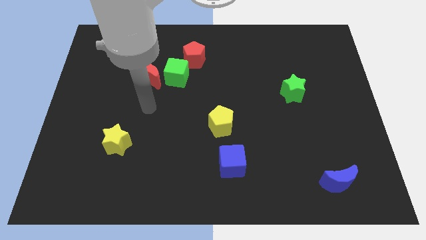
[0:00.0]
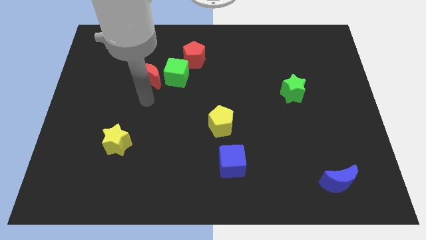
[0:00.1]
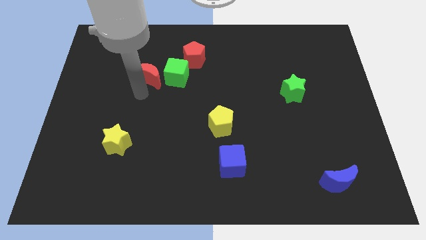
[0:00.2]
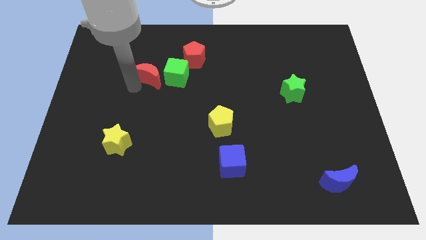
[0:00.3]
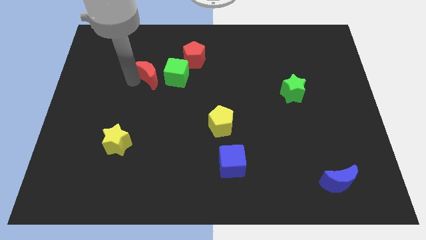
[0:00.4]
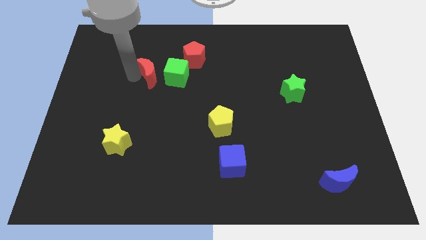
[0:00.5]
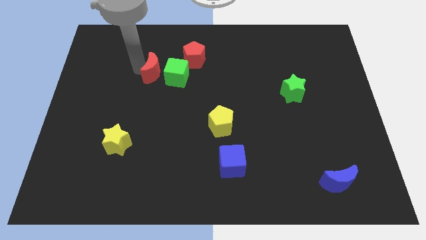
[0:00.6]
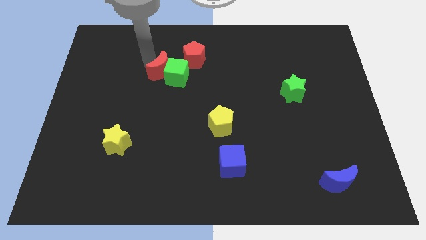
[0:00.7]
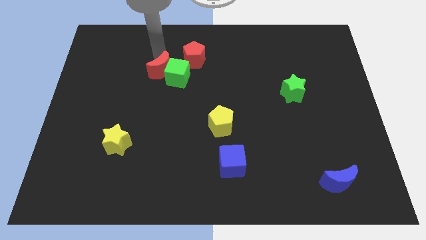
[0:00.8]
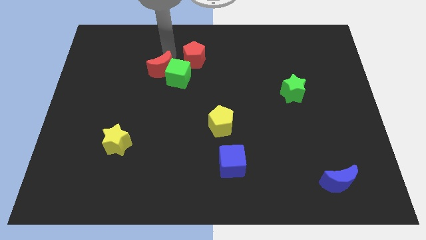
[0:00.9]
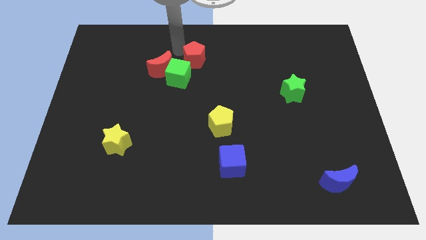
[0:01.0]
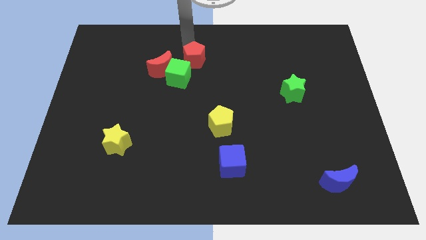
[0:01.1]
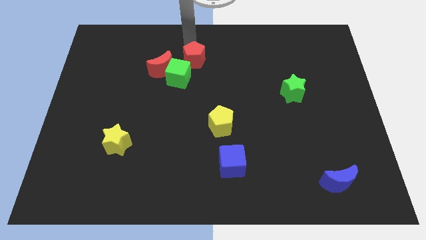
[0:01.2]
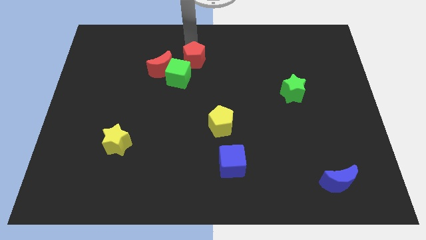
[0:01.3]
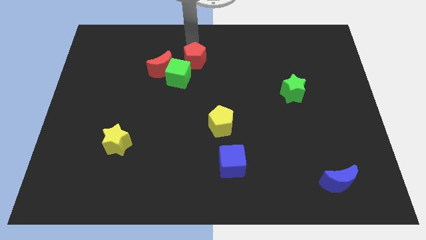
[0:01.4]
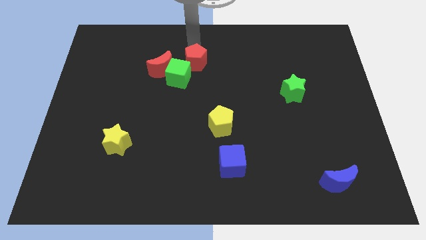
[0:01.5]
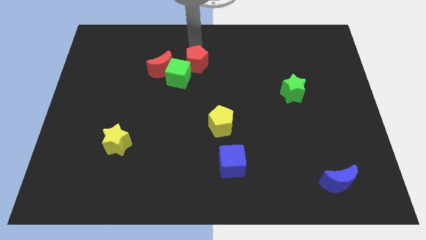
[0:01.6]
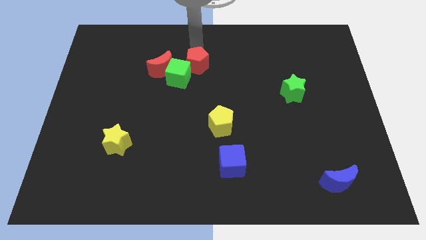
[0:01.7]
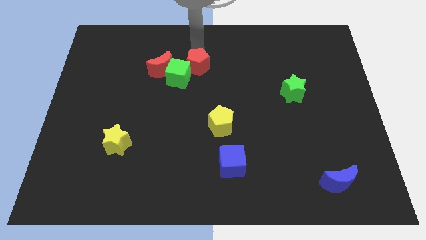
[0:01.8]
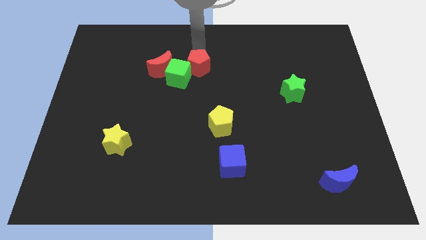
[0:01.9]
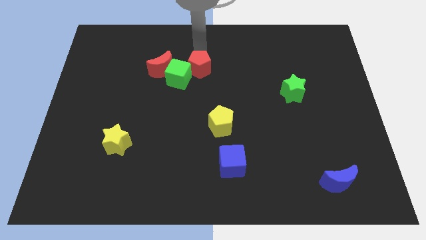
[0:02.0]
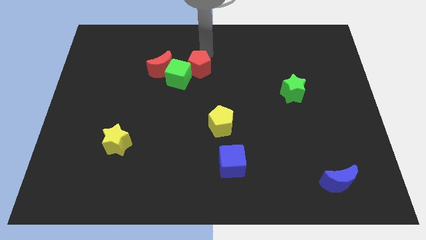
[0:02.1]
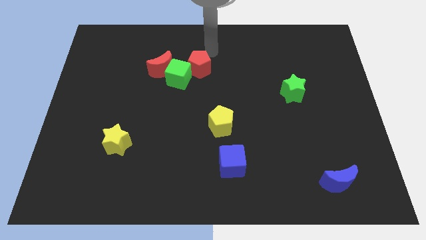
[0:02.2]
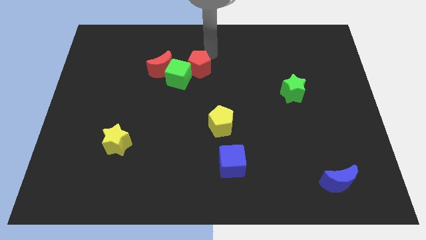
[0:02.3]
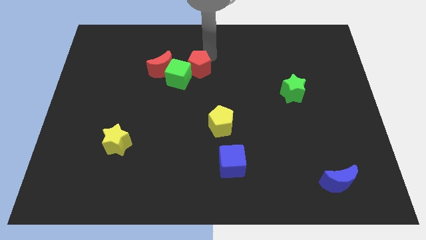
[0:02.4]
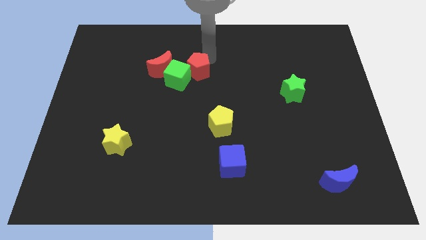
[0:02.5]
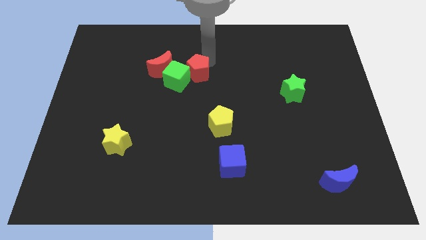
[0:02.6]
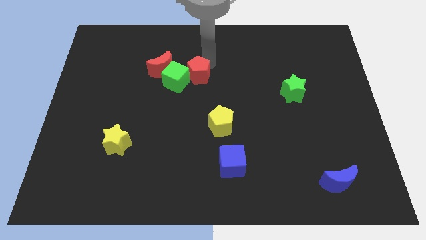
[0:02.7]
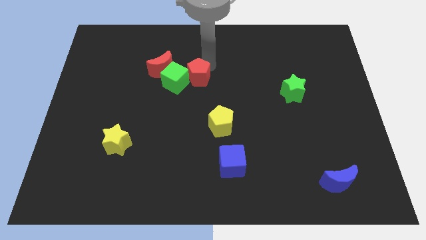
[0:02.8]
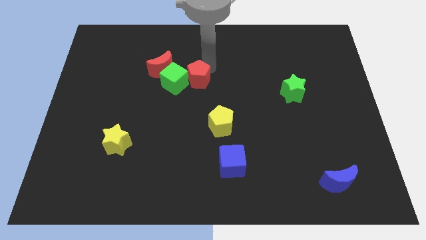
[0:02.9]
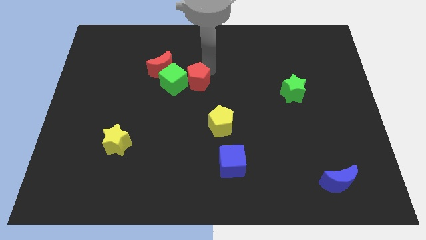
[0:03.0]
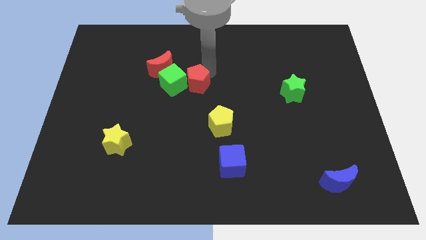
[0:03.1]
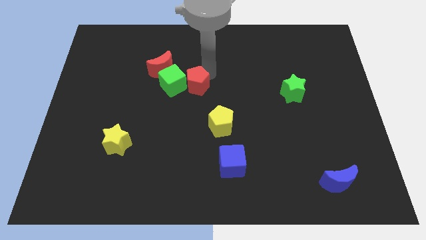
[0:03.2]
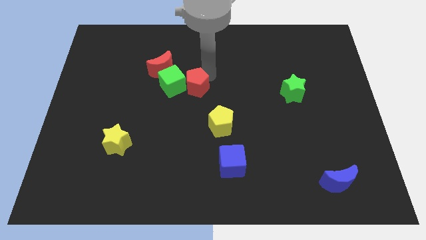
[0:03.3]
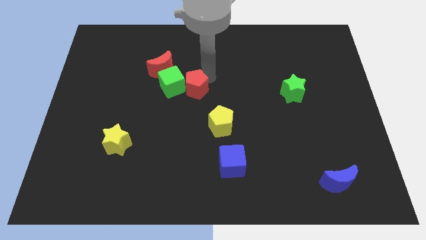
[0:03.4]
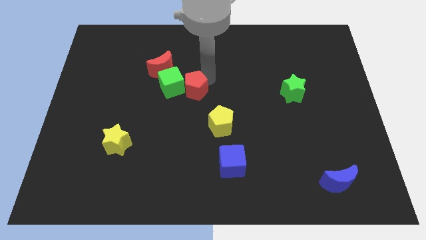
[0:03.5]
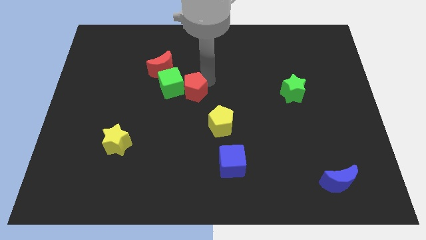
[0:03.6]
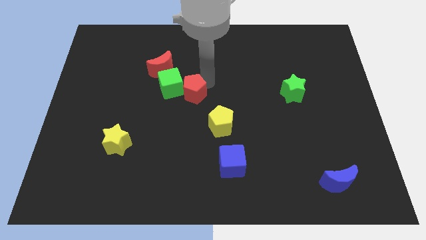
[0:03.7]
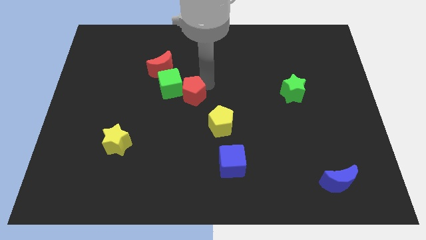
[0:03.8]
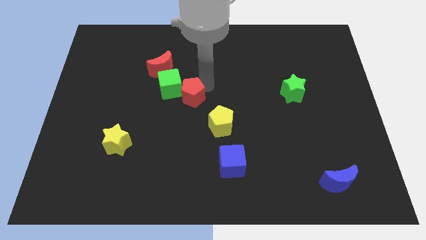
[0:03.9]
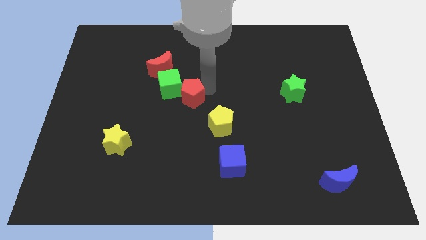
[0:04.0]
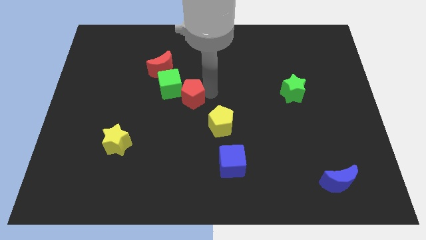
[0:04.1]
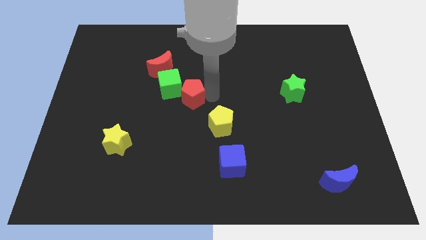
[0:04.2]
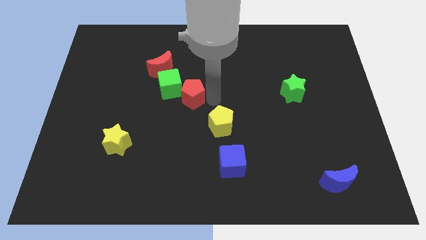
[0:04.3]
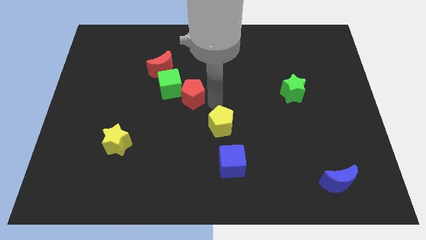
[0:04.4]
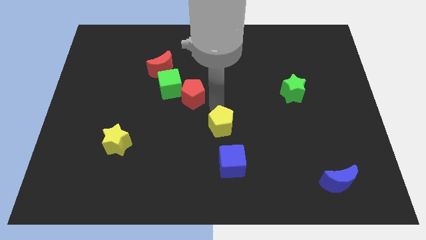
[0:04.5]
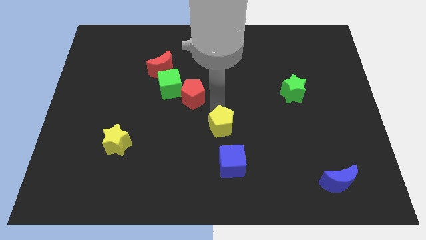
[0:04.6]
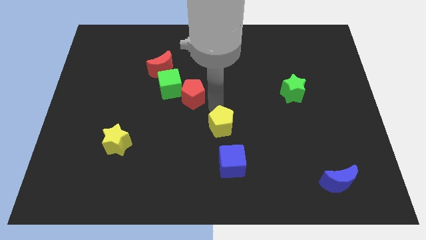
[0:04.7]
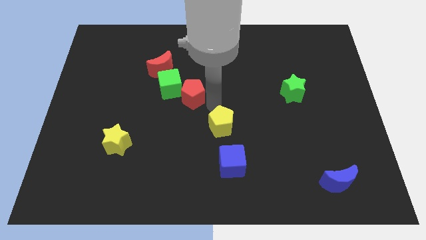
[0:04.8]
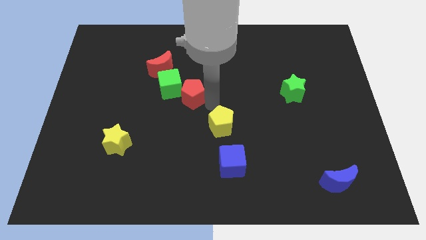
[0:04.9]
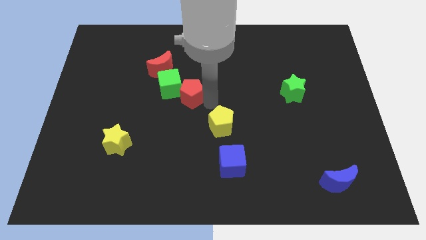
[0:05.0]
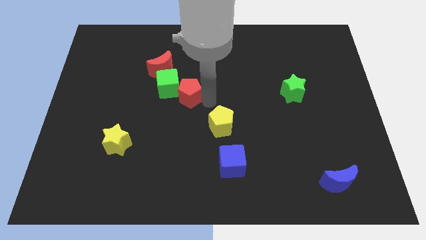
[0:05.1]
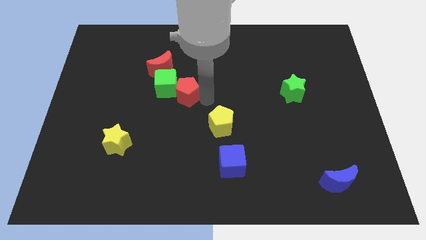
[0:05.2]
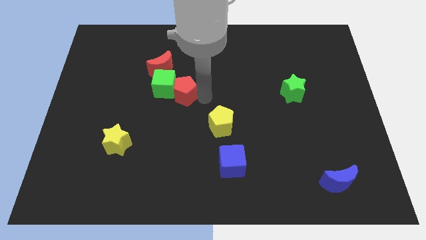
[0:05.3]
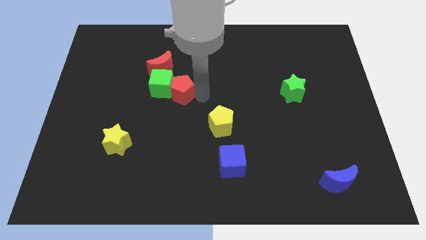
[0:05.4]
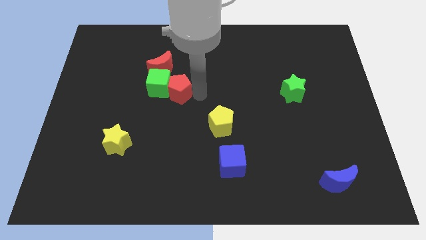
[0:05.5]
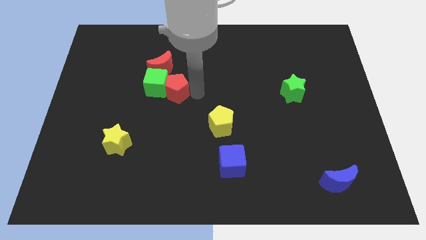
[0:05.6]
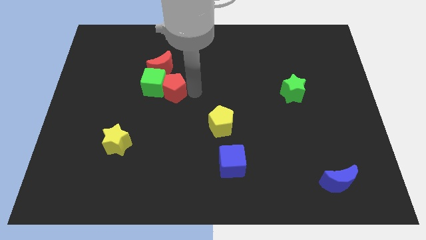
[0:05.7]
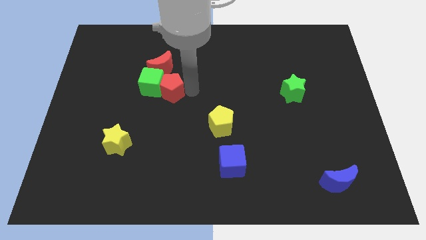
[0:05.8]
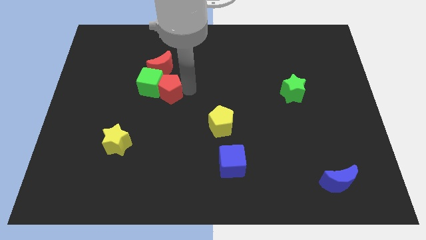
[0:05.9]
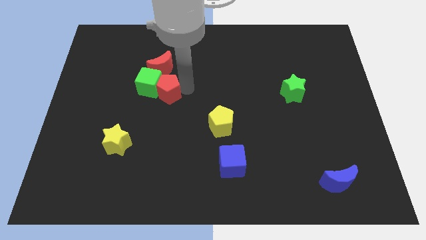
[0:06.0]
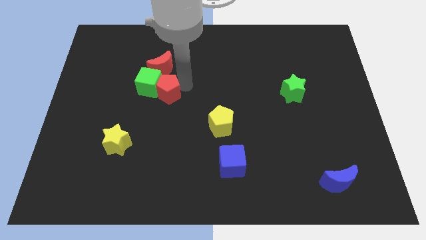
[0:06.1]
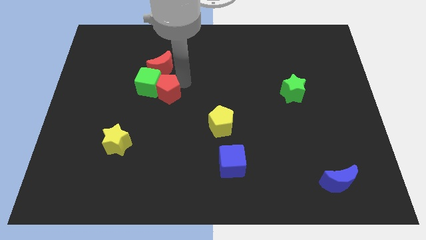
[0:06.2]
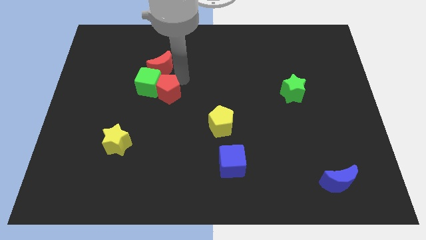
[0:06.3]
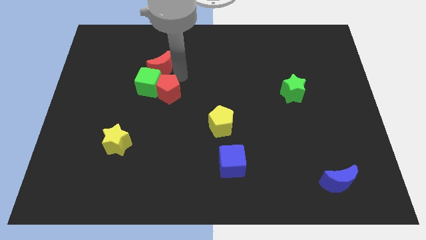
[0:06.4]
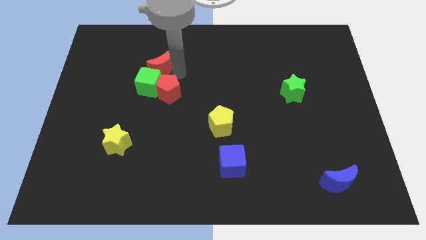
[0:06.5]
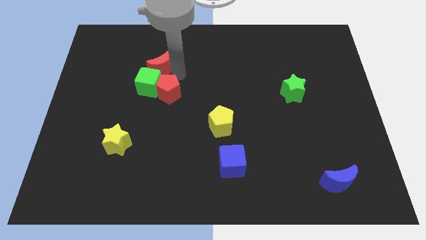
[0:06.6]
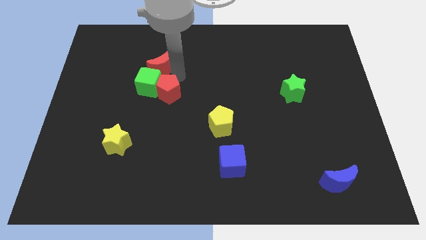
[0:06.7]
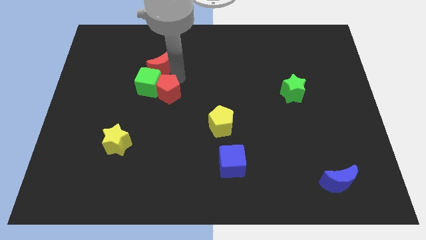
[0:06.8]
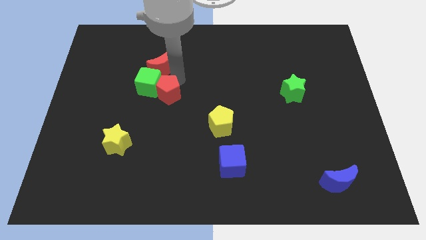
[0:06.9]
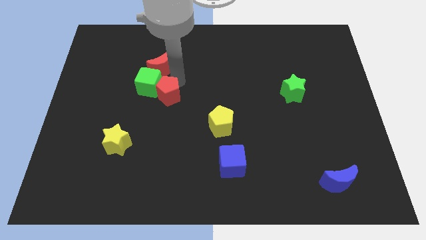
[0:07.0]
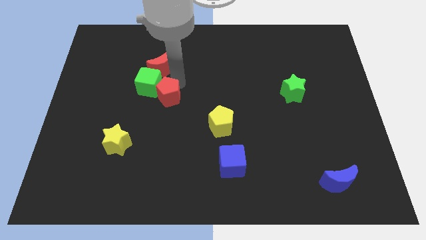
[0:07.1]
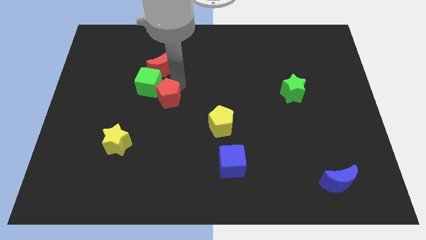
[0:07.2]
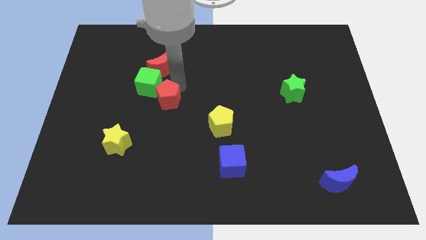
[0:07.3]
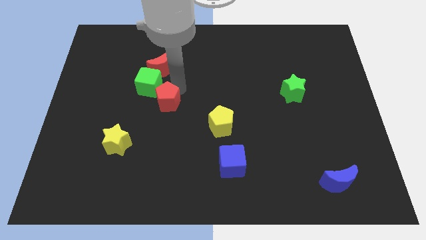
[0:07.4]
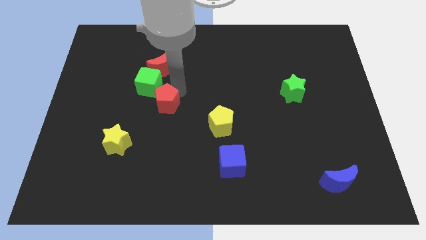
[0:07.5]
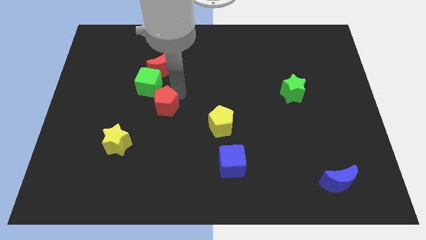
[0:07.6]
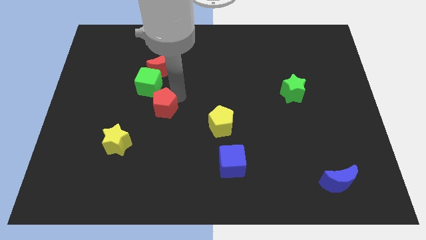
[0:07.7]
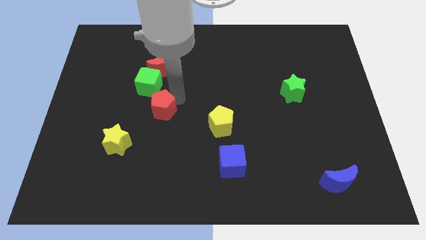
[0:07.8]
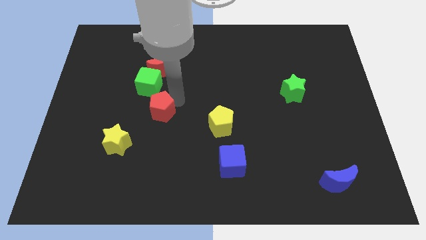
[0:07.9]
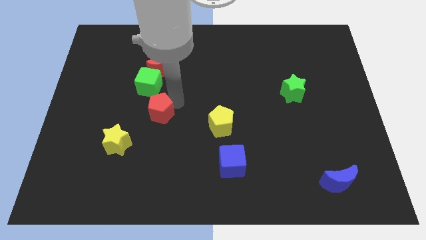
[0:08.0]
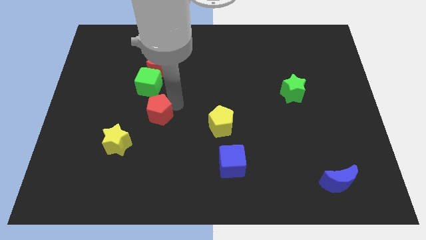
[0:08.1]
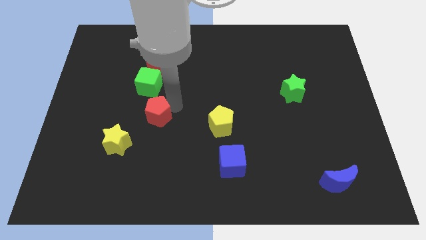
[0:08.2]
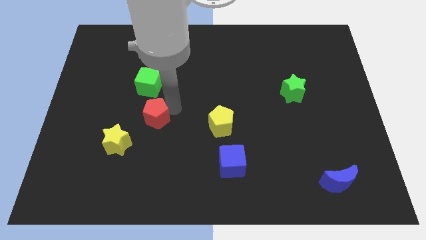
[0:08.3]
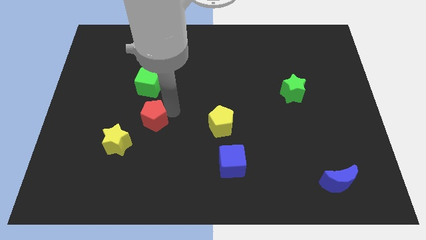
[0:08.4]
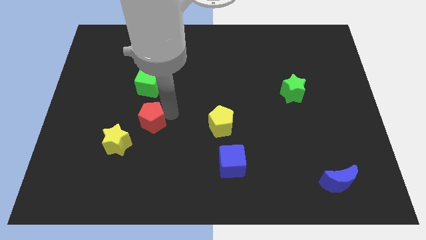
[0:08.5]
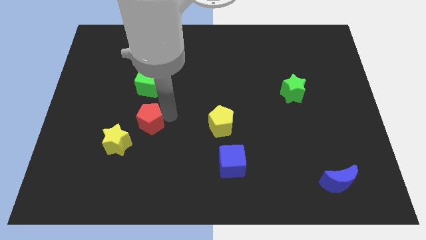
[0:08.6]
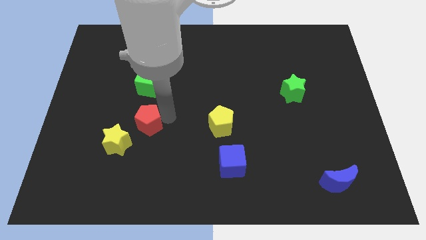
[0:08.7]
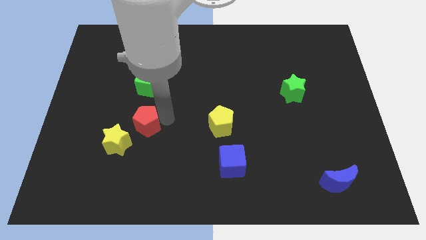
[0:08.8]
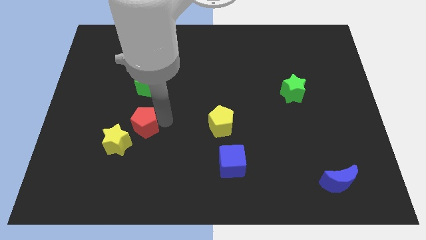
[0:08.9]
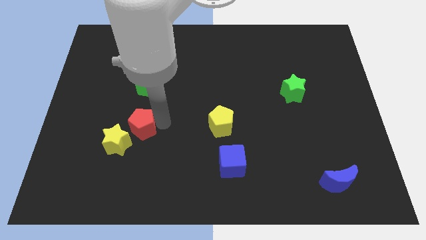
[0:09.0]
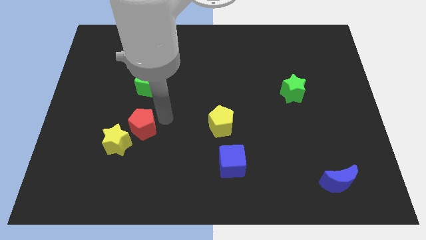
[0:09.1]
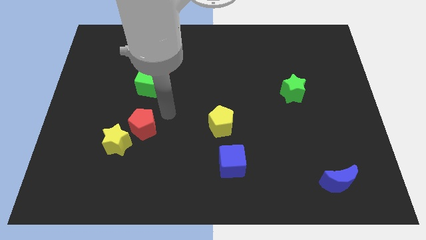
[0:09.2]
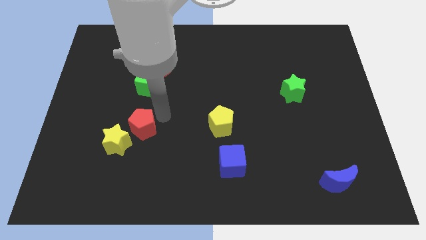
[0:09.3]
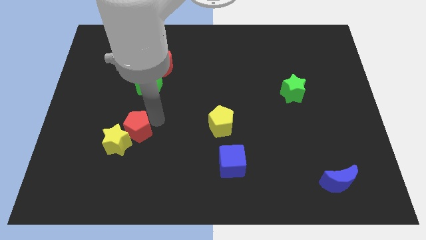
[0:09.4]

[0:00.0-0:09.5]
put the red pentagon close to the yellow star
